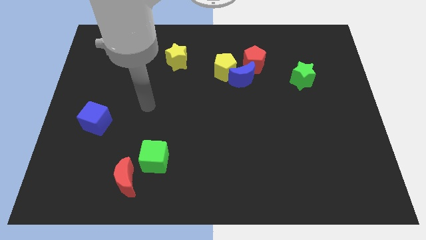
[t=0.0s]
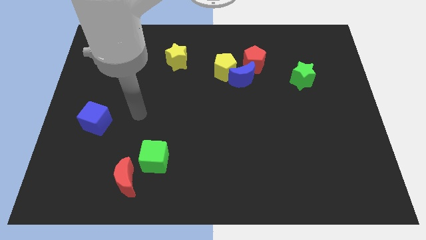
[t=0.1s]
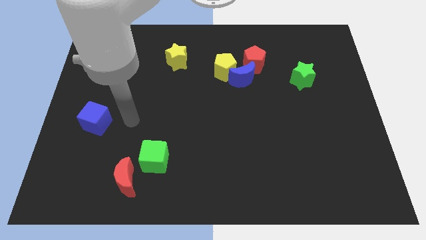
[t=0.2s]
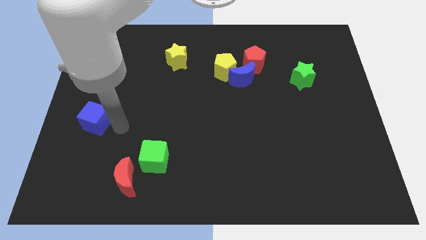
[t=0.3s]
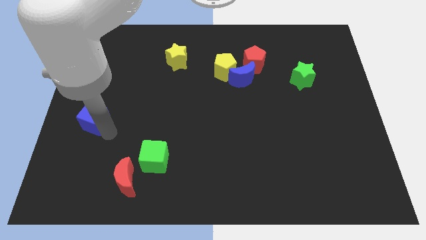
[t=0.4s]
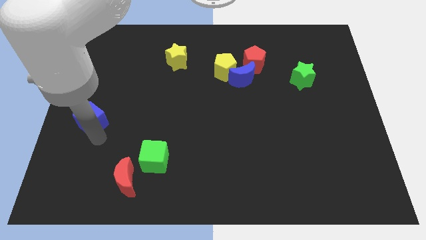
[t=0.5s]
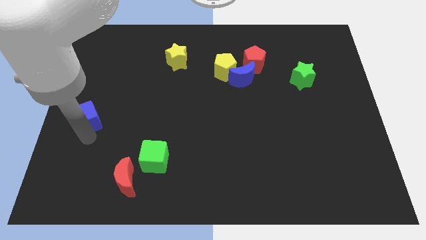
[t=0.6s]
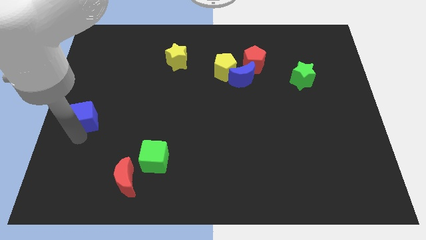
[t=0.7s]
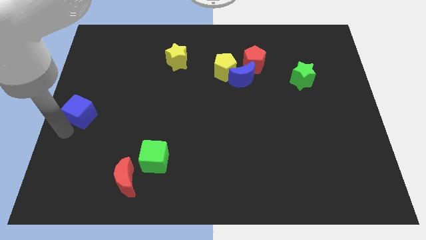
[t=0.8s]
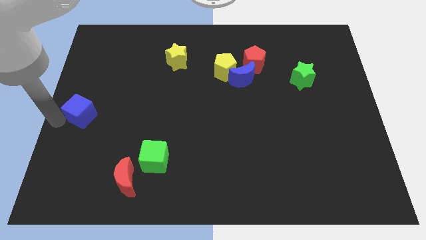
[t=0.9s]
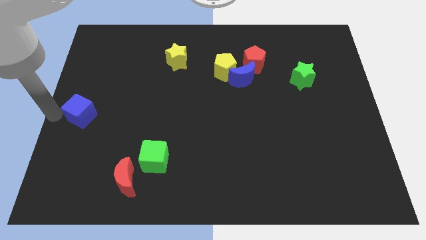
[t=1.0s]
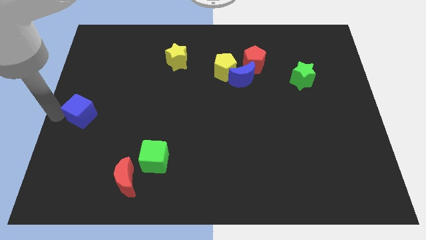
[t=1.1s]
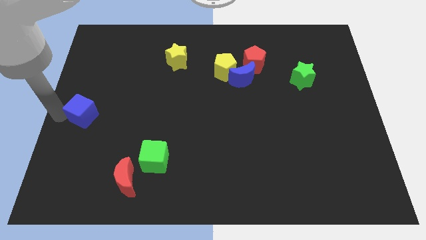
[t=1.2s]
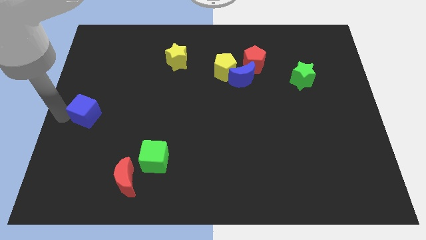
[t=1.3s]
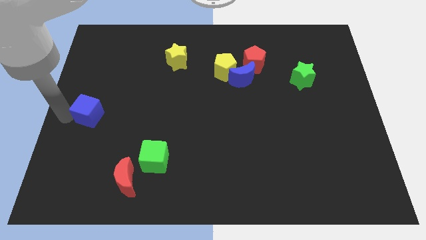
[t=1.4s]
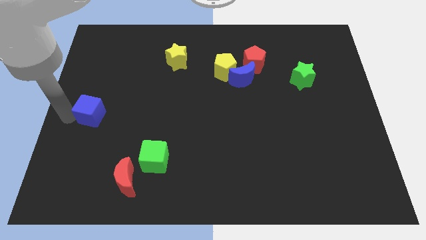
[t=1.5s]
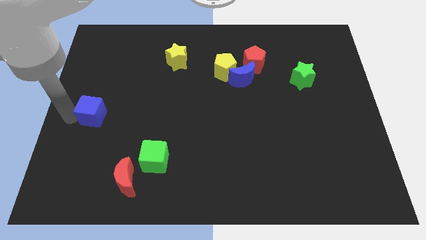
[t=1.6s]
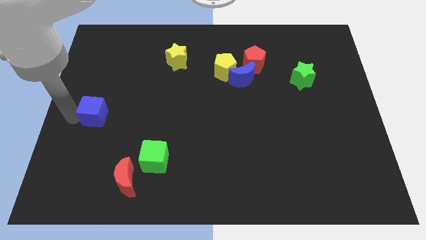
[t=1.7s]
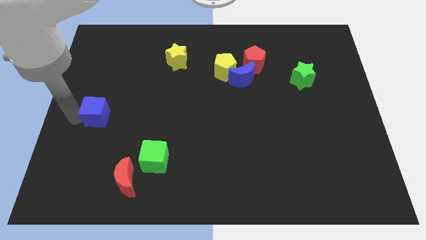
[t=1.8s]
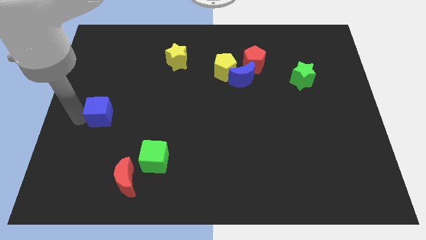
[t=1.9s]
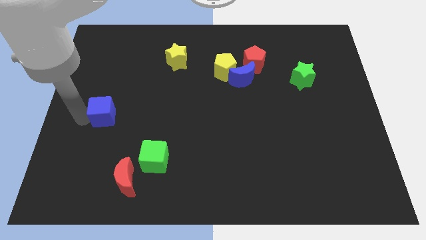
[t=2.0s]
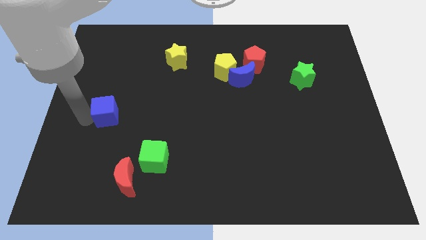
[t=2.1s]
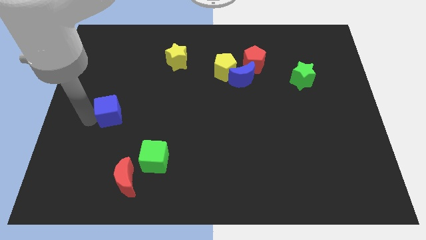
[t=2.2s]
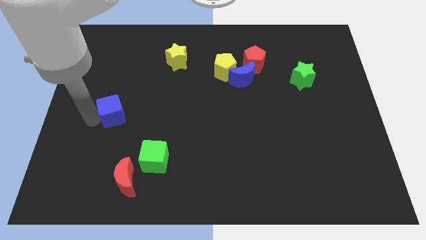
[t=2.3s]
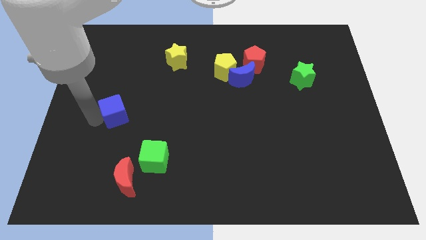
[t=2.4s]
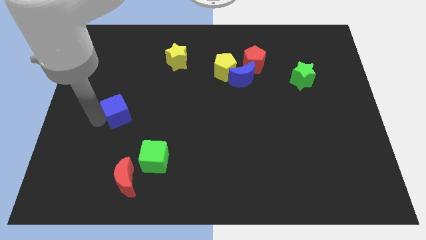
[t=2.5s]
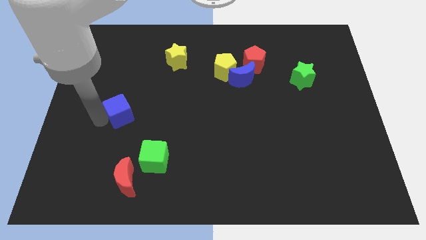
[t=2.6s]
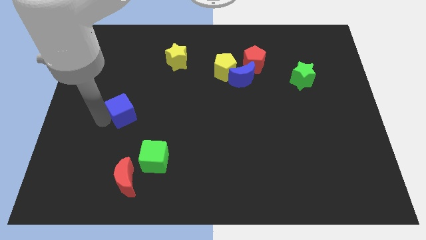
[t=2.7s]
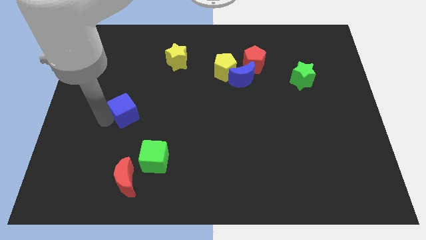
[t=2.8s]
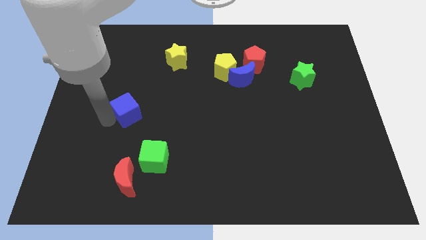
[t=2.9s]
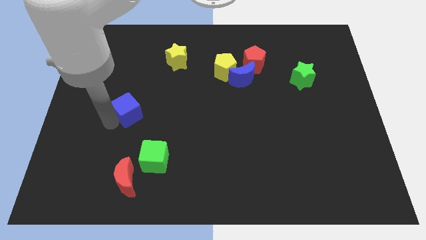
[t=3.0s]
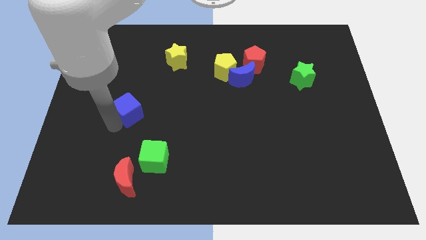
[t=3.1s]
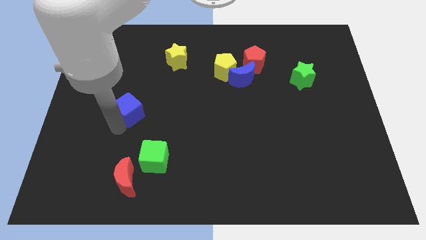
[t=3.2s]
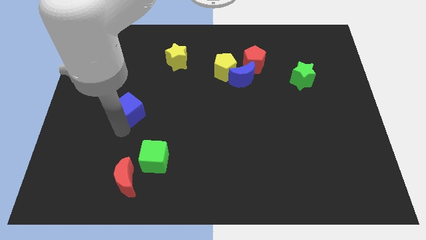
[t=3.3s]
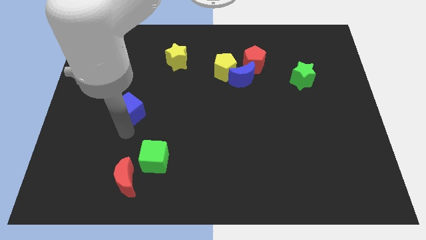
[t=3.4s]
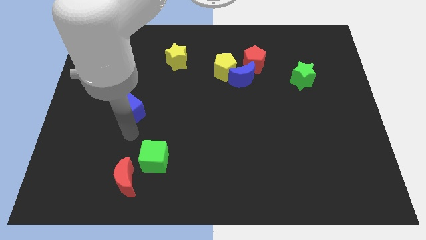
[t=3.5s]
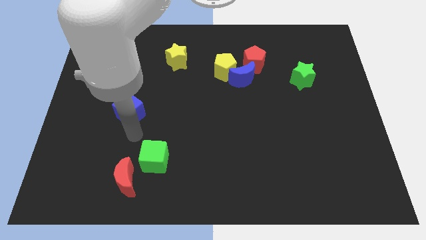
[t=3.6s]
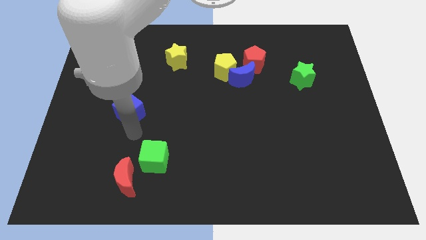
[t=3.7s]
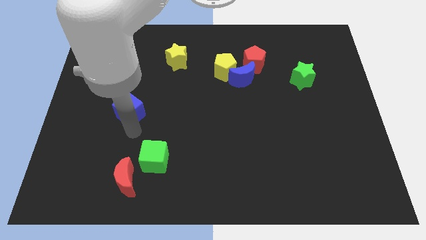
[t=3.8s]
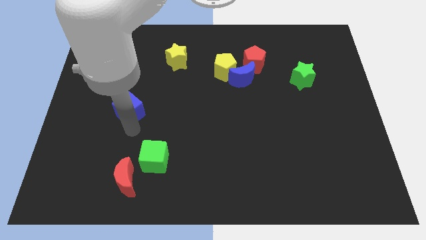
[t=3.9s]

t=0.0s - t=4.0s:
push the blue cube a little bit diagonally up and right

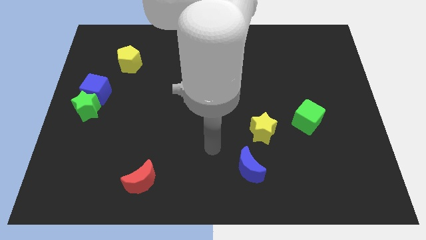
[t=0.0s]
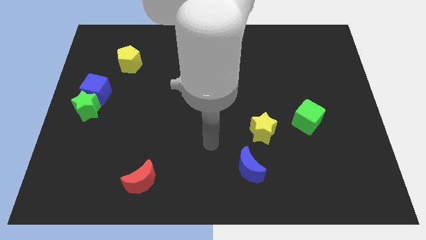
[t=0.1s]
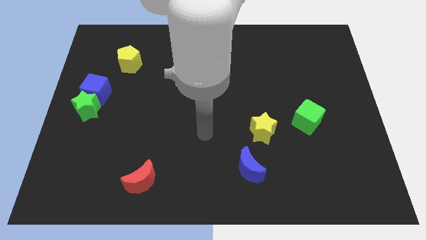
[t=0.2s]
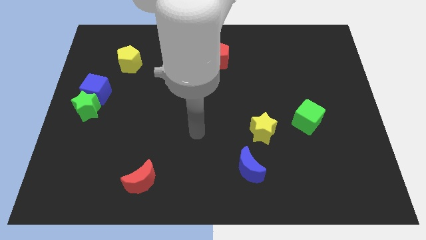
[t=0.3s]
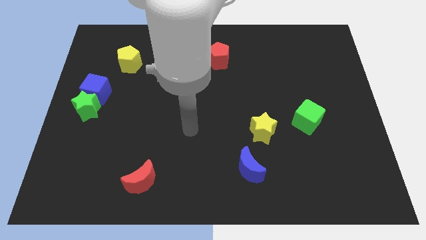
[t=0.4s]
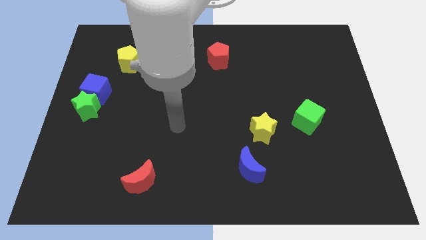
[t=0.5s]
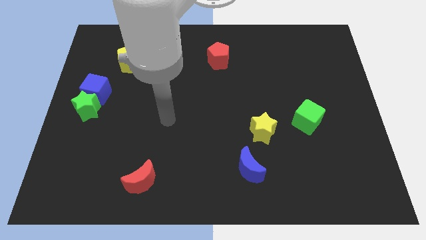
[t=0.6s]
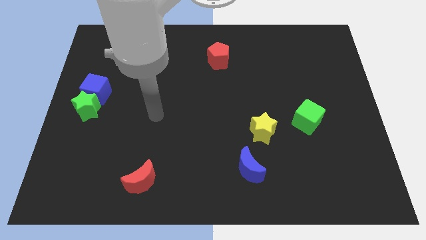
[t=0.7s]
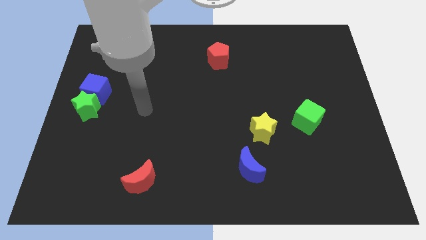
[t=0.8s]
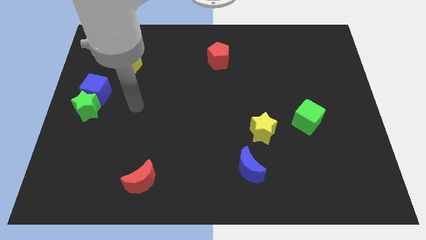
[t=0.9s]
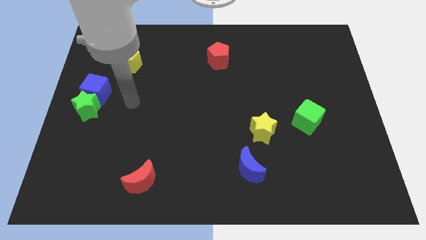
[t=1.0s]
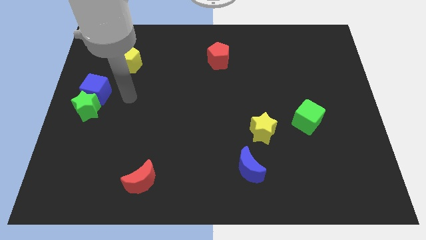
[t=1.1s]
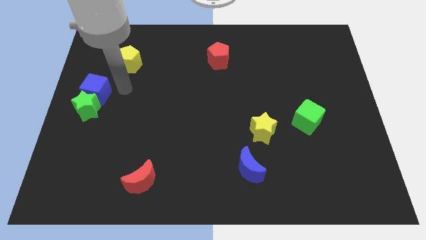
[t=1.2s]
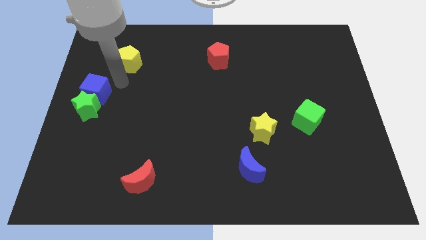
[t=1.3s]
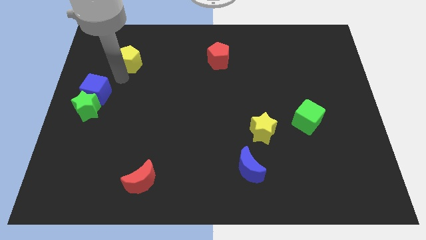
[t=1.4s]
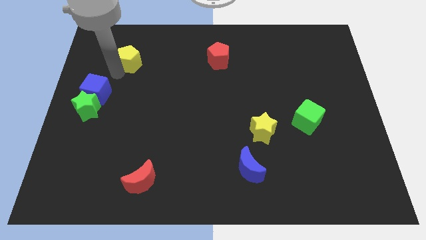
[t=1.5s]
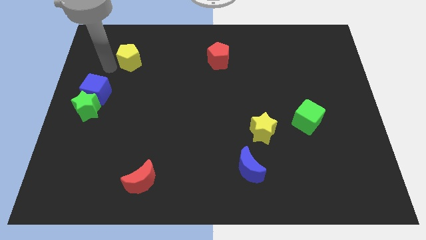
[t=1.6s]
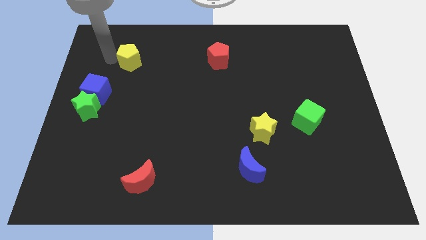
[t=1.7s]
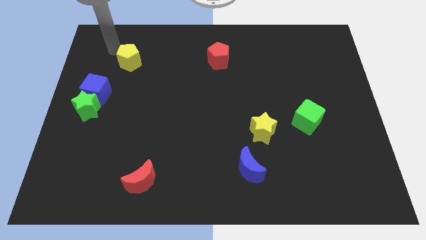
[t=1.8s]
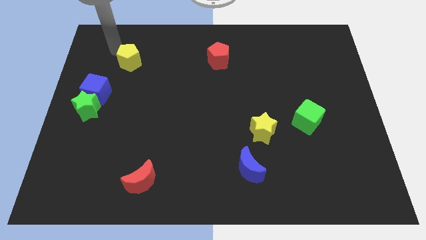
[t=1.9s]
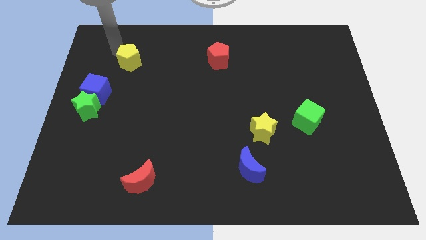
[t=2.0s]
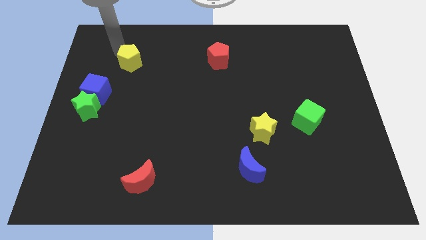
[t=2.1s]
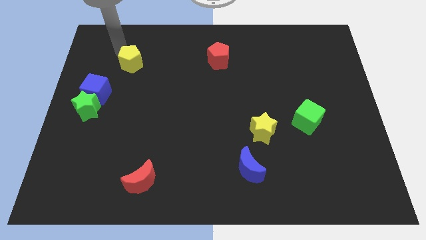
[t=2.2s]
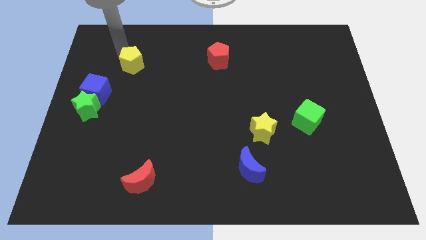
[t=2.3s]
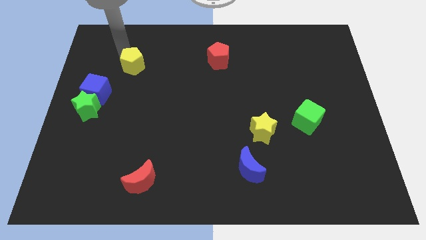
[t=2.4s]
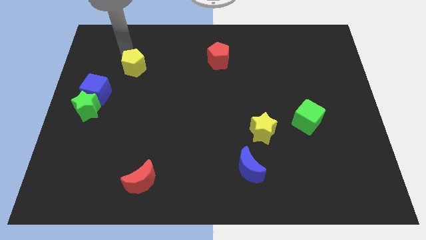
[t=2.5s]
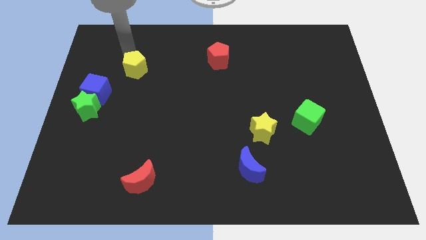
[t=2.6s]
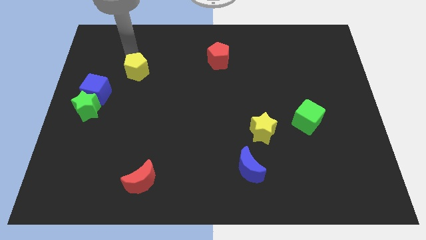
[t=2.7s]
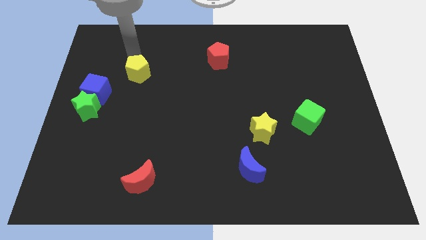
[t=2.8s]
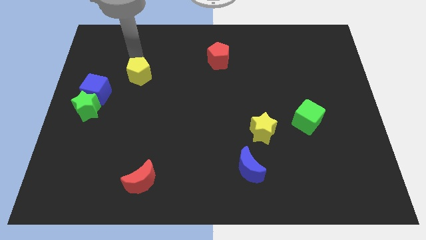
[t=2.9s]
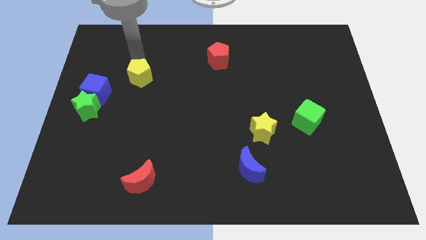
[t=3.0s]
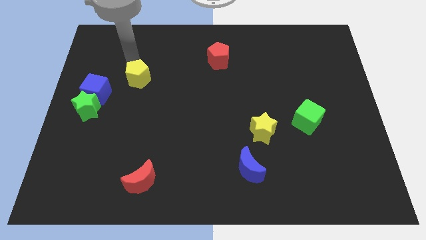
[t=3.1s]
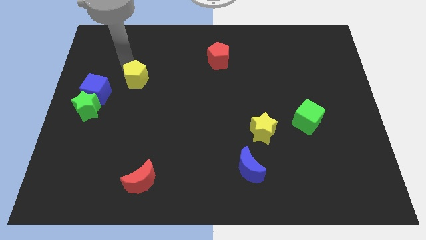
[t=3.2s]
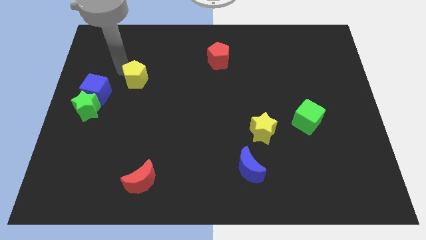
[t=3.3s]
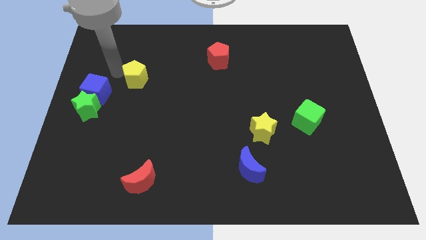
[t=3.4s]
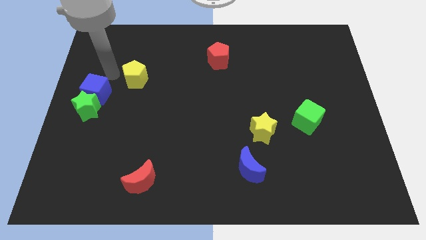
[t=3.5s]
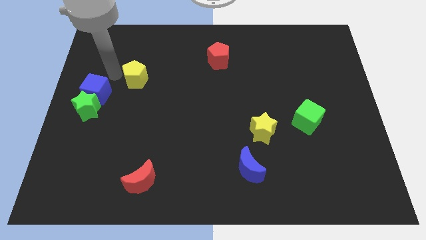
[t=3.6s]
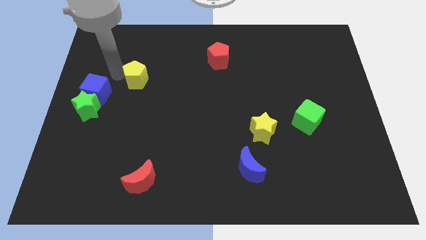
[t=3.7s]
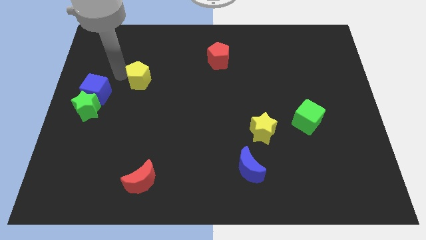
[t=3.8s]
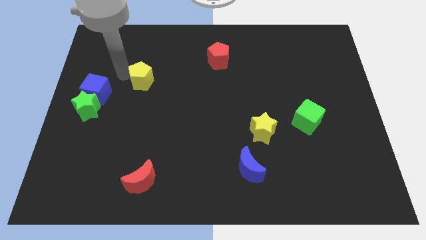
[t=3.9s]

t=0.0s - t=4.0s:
slightly push the yellow pentagon diagonally down and right
